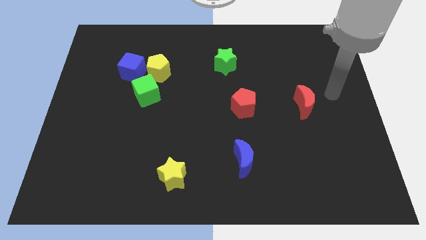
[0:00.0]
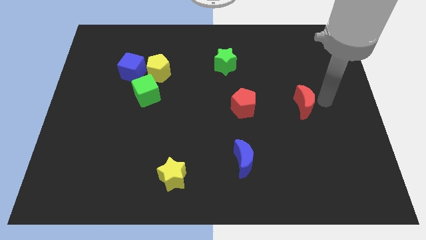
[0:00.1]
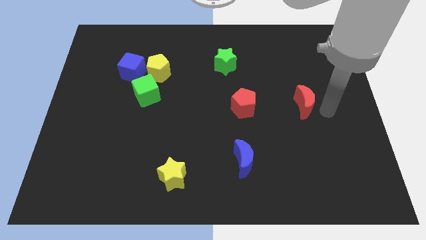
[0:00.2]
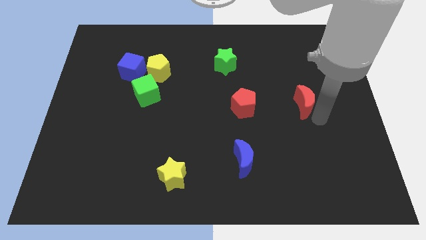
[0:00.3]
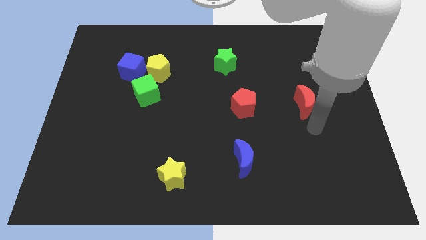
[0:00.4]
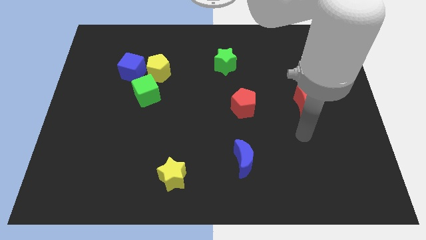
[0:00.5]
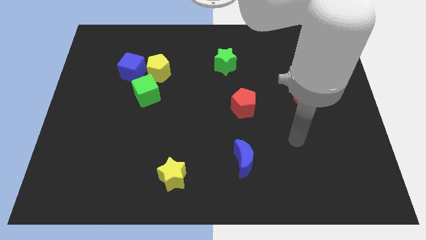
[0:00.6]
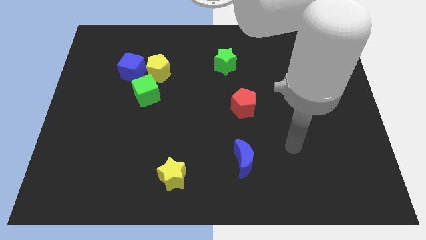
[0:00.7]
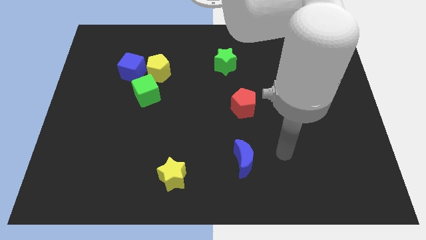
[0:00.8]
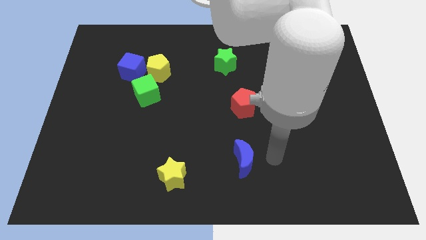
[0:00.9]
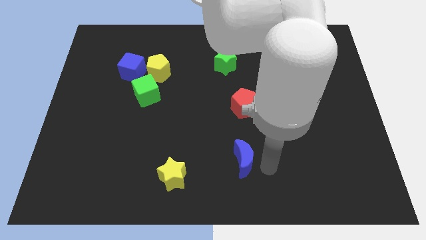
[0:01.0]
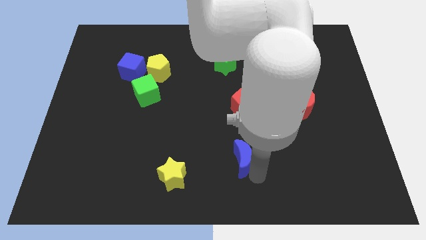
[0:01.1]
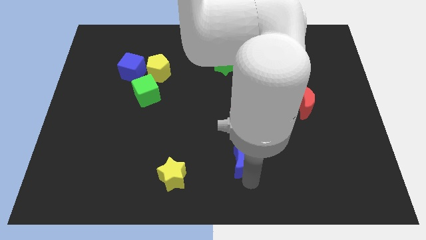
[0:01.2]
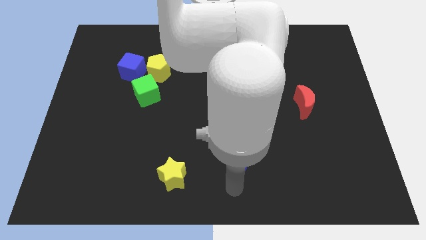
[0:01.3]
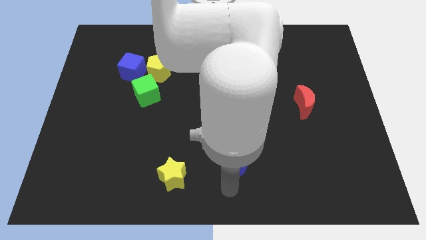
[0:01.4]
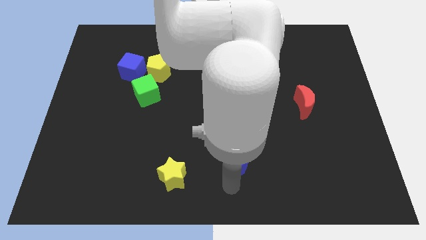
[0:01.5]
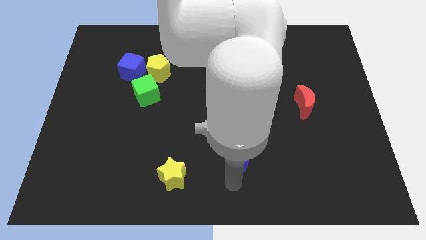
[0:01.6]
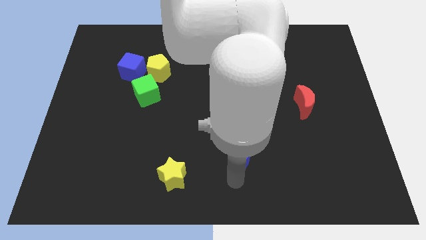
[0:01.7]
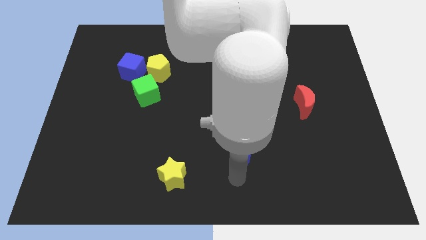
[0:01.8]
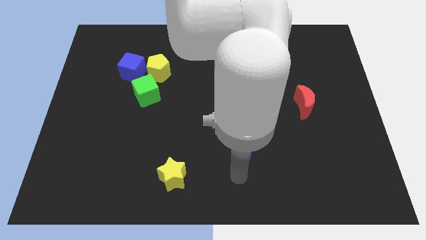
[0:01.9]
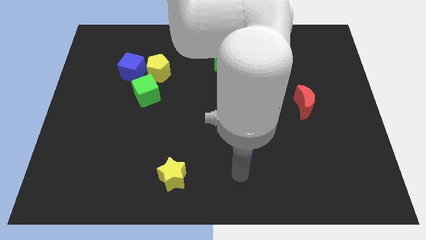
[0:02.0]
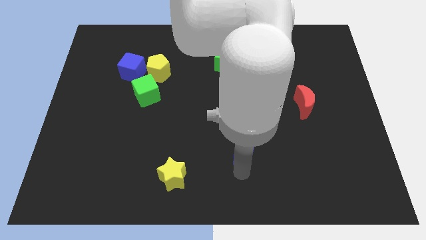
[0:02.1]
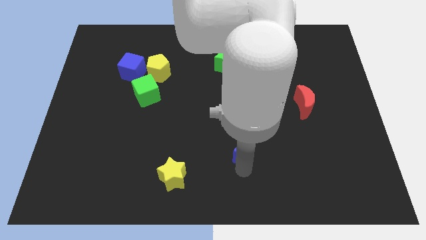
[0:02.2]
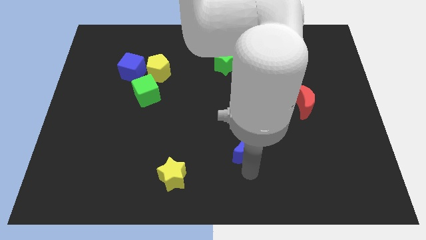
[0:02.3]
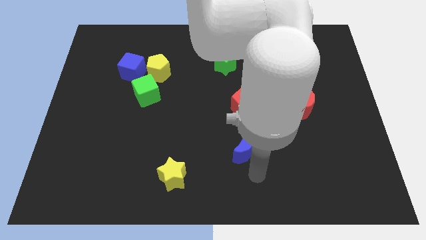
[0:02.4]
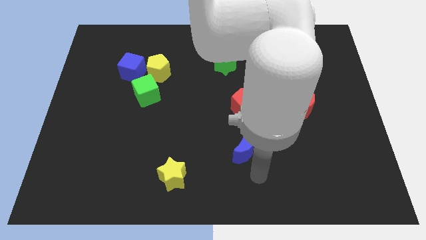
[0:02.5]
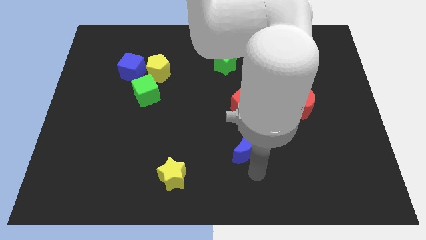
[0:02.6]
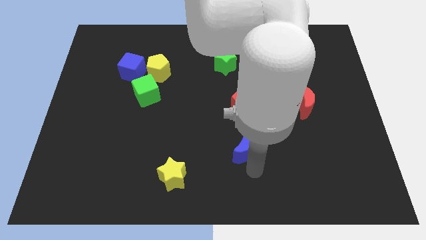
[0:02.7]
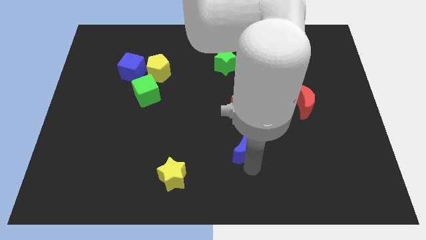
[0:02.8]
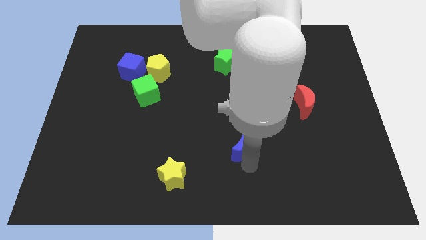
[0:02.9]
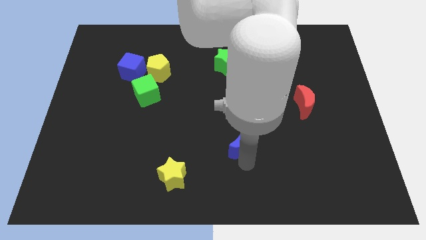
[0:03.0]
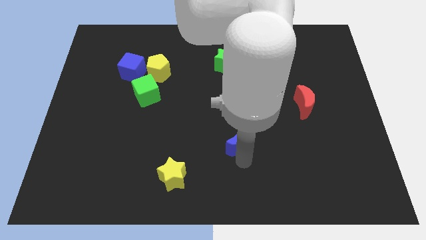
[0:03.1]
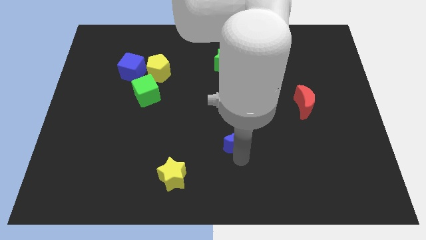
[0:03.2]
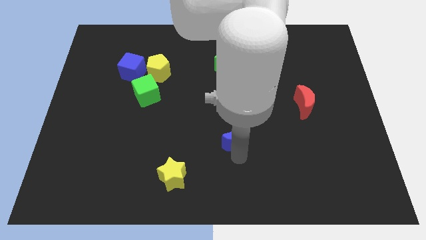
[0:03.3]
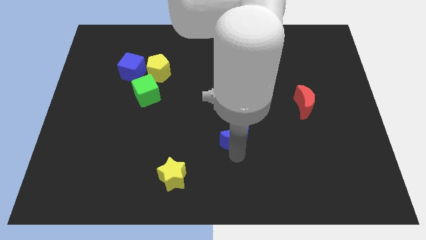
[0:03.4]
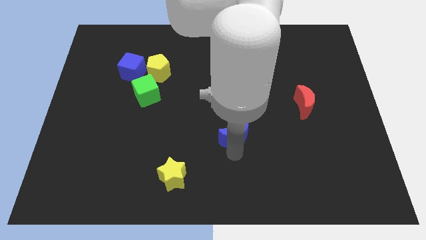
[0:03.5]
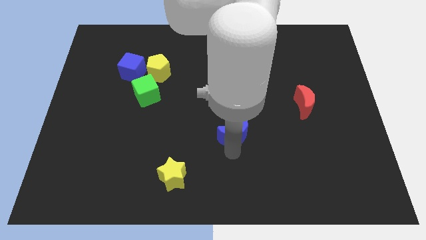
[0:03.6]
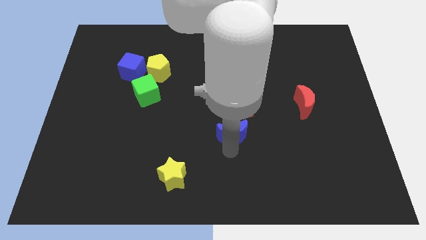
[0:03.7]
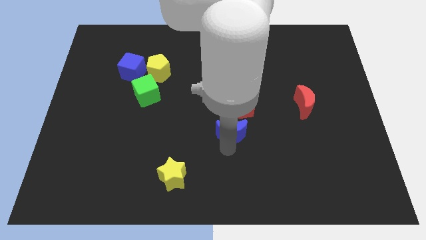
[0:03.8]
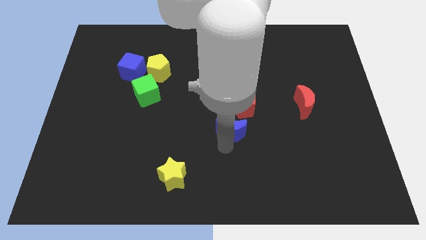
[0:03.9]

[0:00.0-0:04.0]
move the blue moon up a little bit

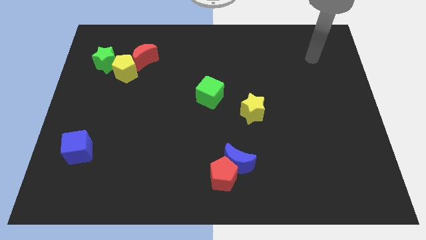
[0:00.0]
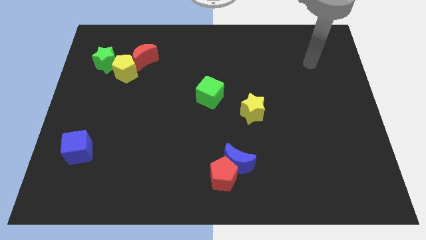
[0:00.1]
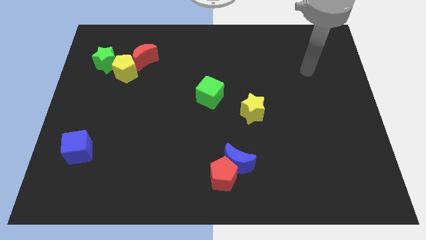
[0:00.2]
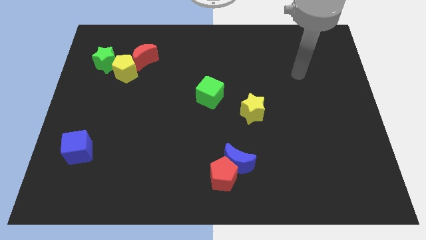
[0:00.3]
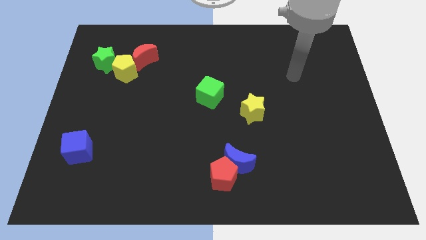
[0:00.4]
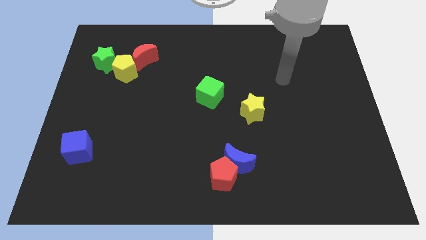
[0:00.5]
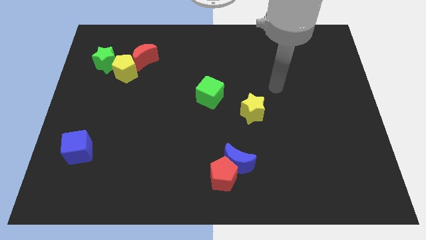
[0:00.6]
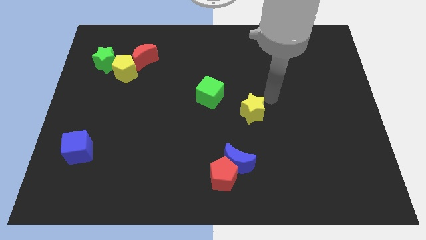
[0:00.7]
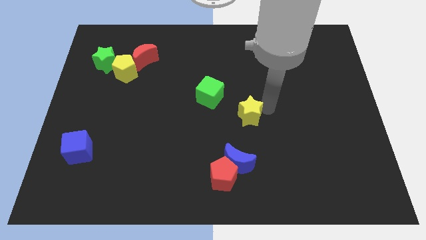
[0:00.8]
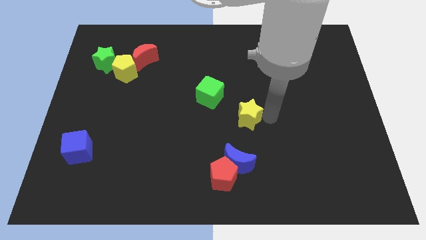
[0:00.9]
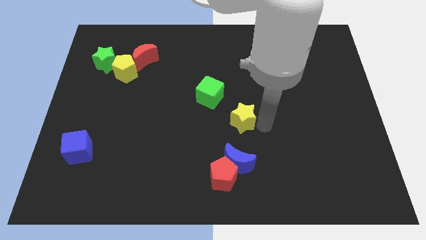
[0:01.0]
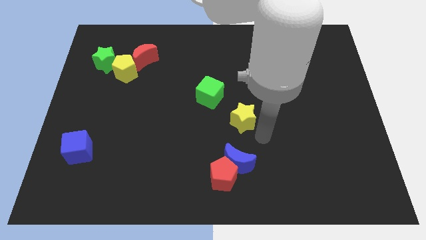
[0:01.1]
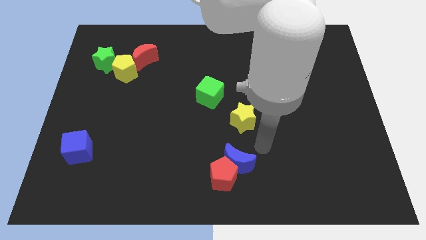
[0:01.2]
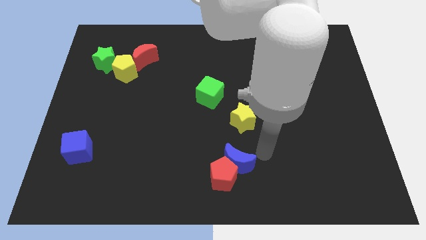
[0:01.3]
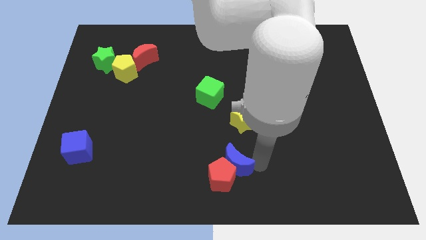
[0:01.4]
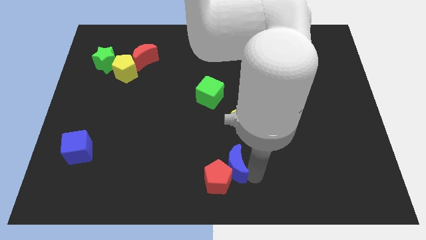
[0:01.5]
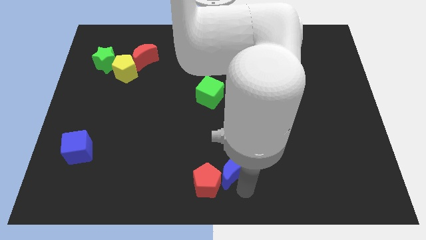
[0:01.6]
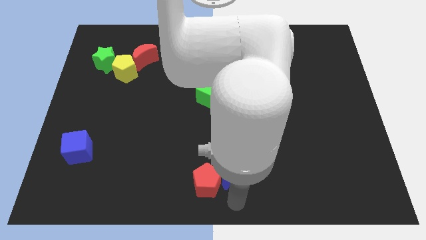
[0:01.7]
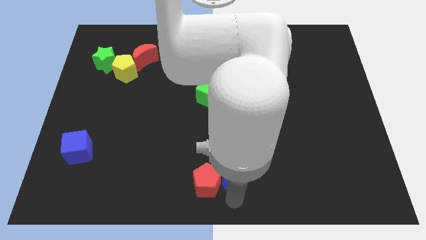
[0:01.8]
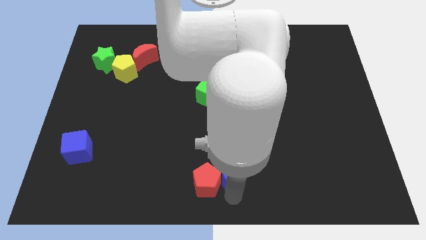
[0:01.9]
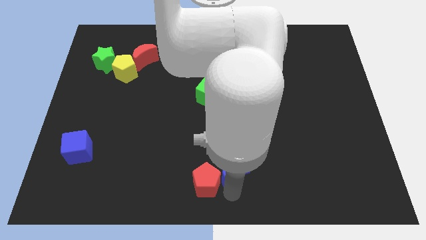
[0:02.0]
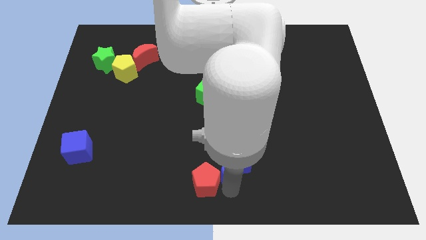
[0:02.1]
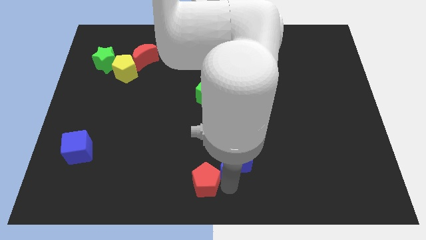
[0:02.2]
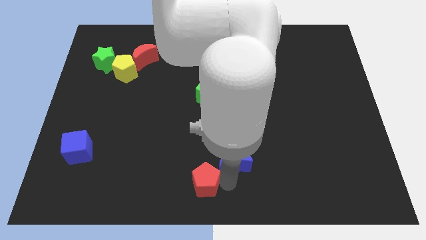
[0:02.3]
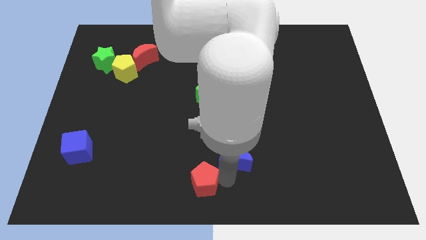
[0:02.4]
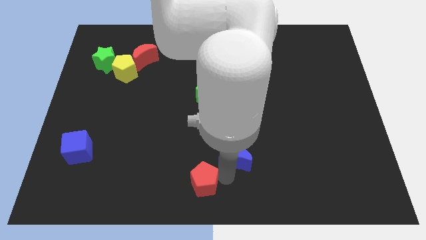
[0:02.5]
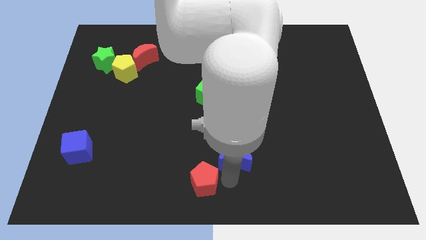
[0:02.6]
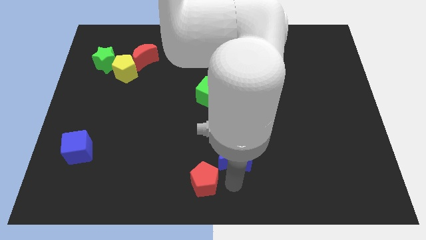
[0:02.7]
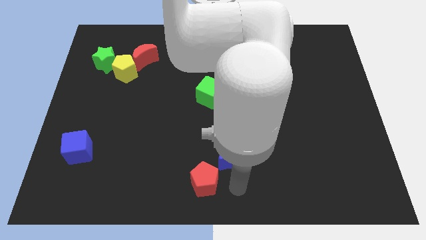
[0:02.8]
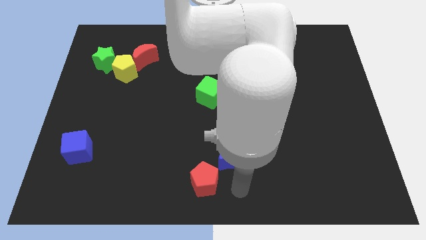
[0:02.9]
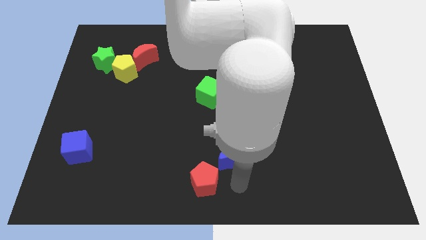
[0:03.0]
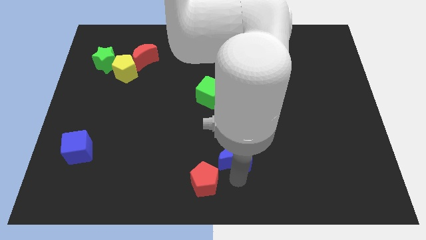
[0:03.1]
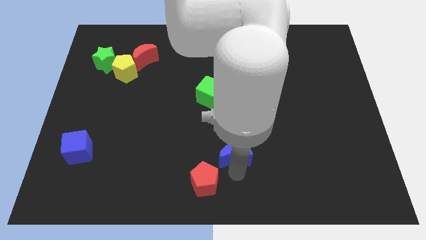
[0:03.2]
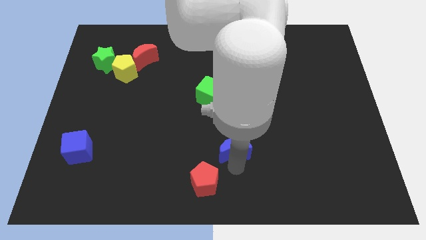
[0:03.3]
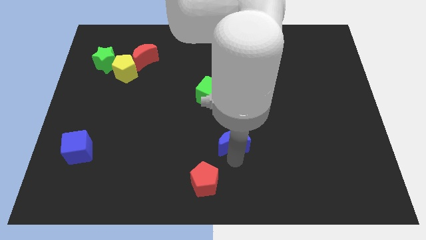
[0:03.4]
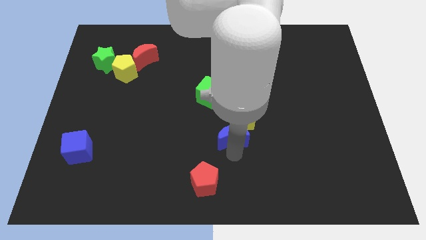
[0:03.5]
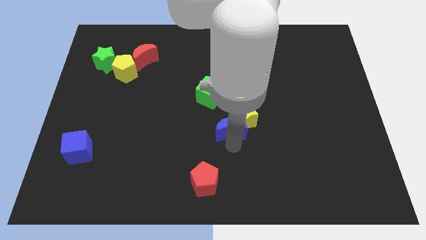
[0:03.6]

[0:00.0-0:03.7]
slightly slide the blue moon upwards

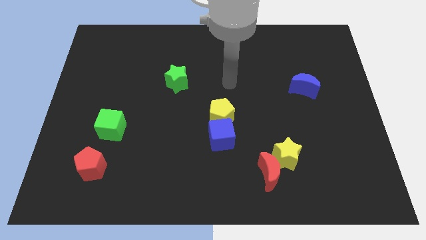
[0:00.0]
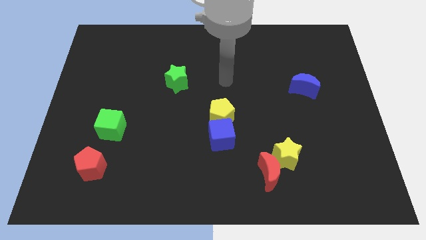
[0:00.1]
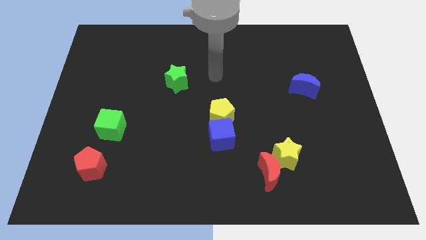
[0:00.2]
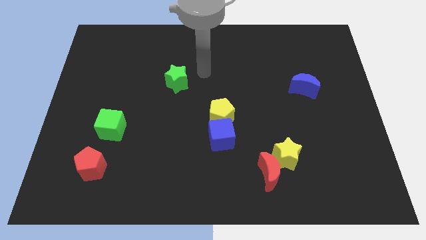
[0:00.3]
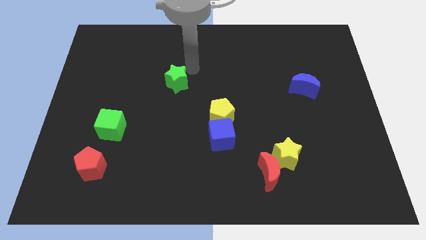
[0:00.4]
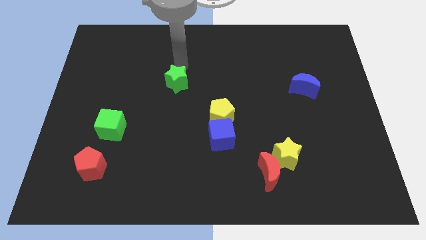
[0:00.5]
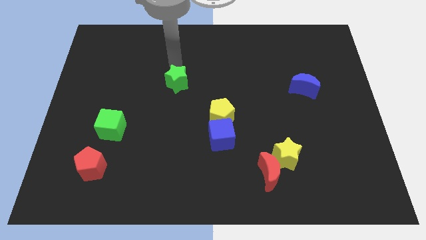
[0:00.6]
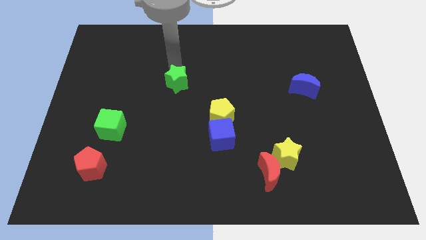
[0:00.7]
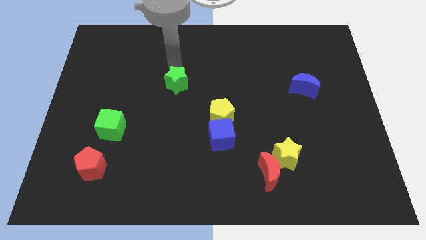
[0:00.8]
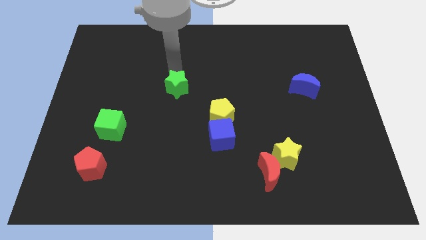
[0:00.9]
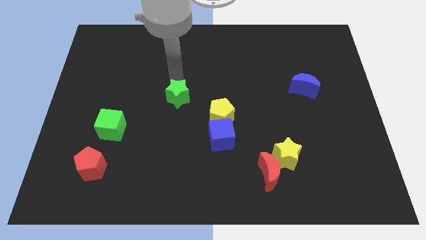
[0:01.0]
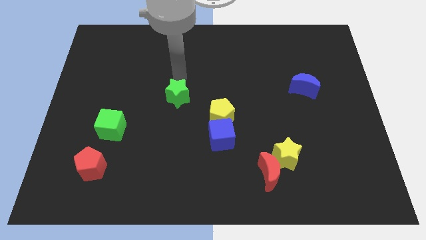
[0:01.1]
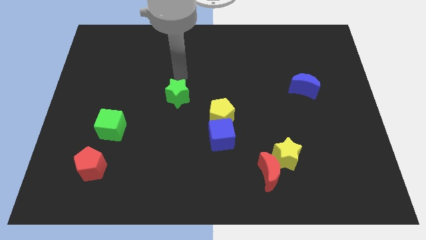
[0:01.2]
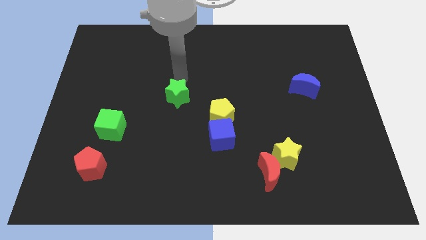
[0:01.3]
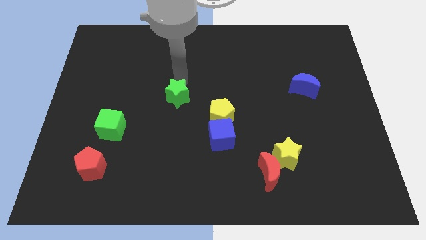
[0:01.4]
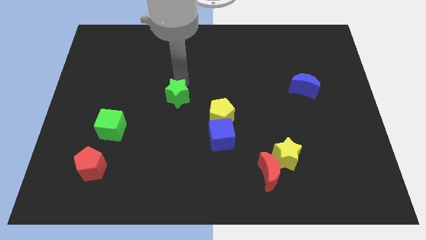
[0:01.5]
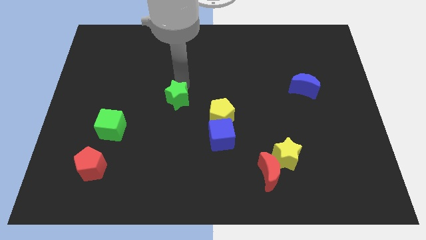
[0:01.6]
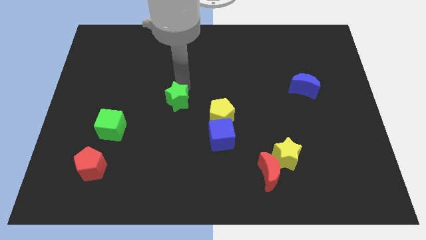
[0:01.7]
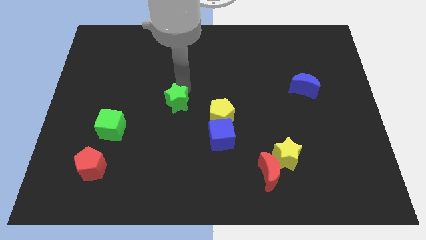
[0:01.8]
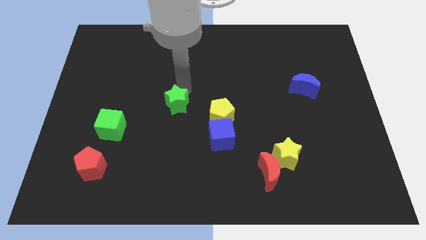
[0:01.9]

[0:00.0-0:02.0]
push the green star a little bit downwards
